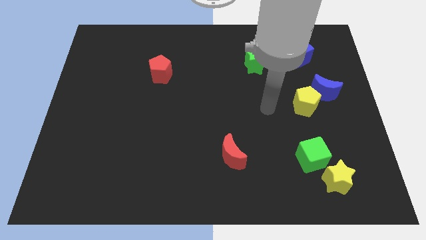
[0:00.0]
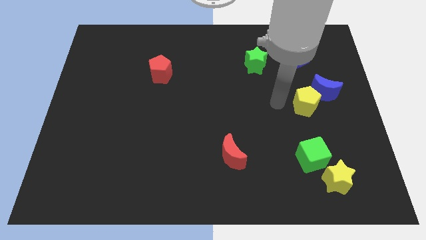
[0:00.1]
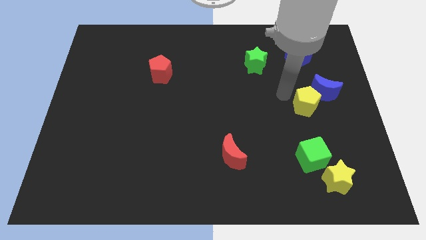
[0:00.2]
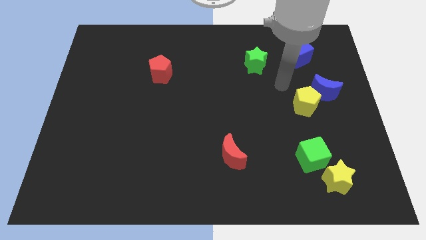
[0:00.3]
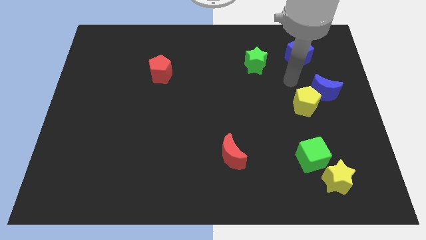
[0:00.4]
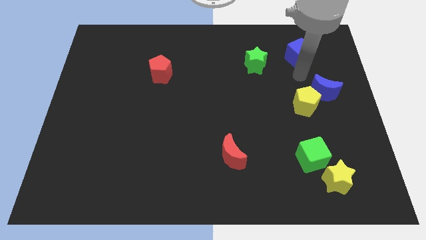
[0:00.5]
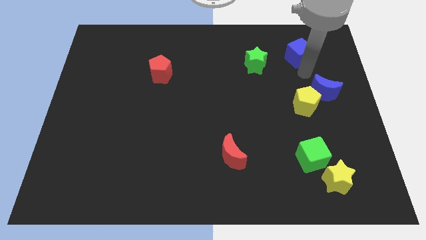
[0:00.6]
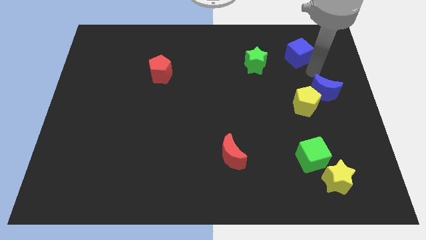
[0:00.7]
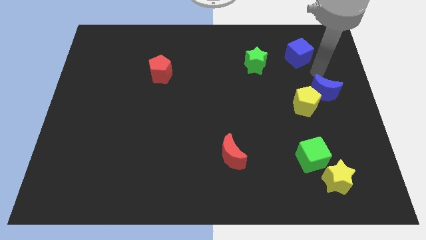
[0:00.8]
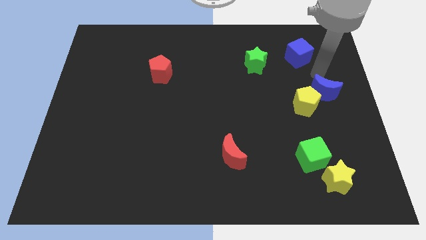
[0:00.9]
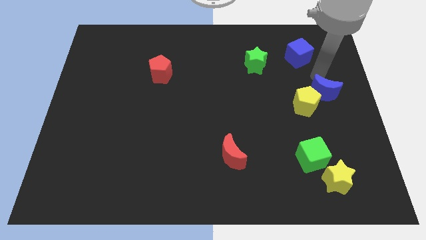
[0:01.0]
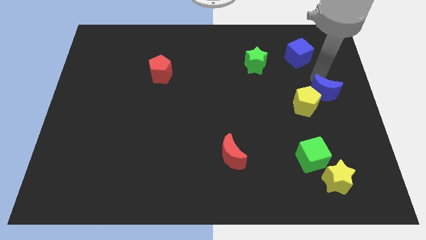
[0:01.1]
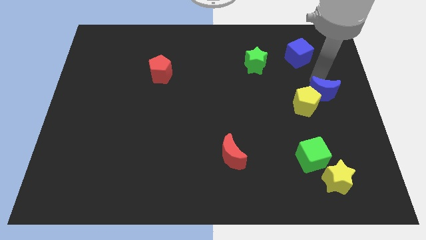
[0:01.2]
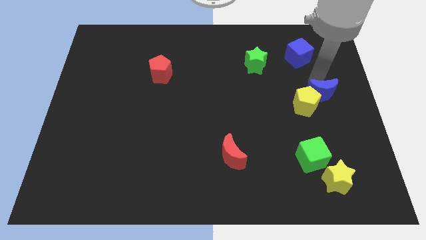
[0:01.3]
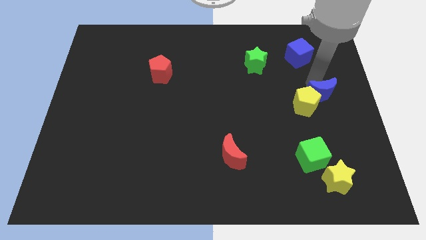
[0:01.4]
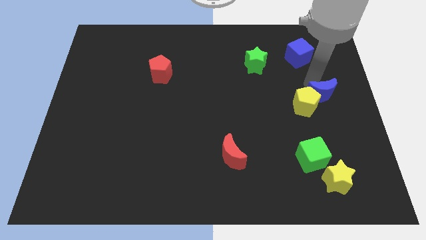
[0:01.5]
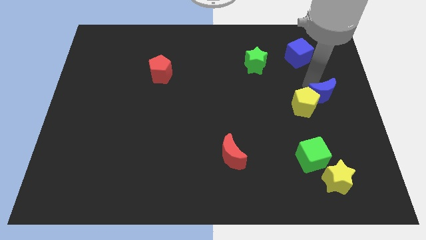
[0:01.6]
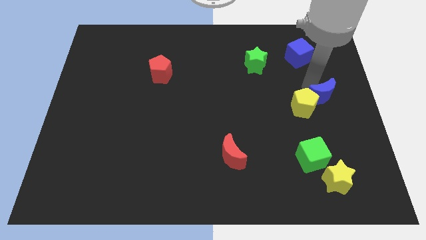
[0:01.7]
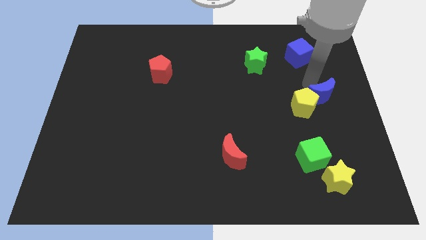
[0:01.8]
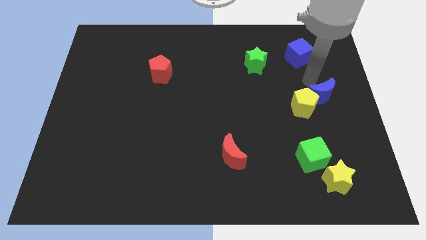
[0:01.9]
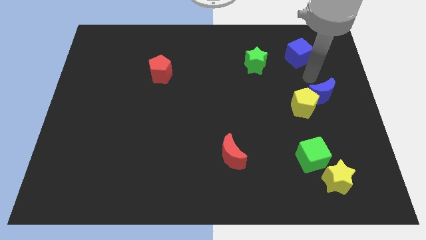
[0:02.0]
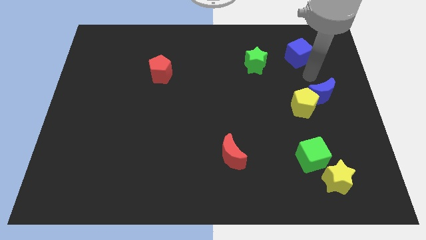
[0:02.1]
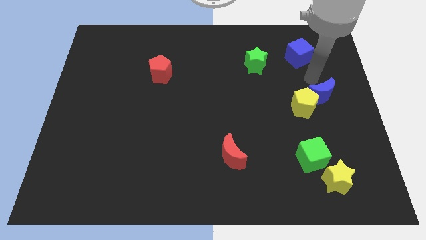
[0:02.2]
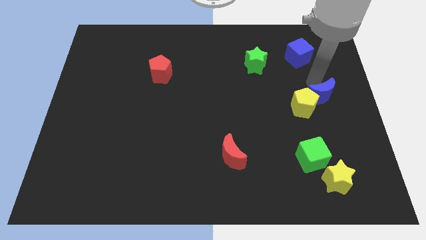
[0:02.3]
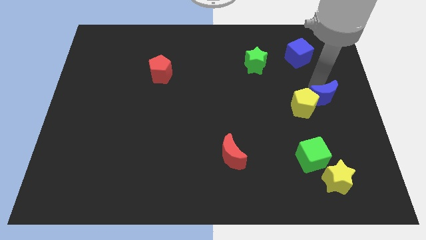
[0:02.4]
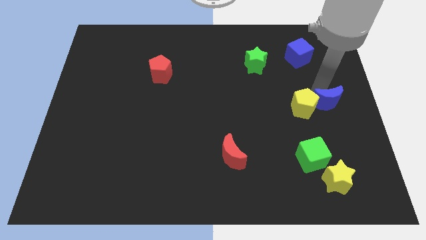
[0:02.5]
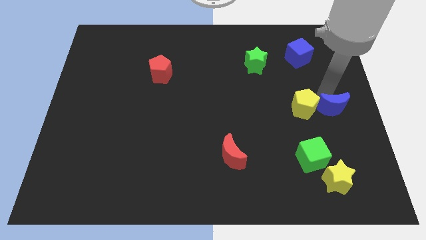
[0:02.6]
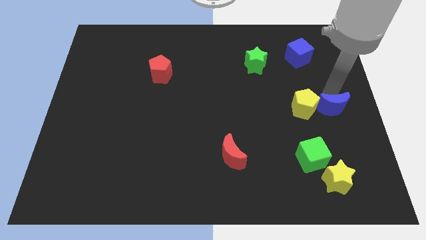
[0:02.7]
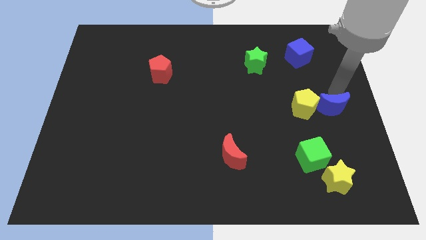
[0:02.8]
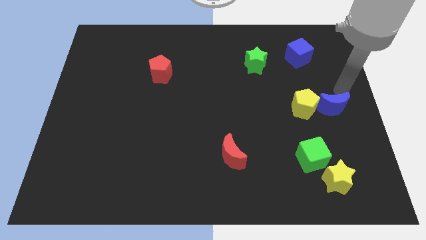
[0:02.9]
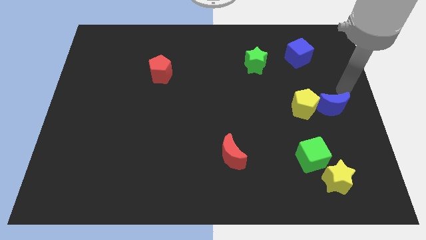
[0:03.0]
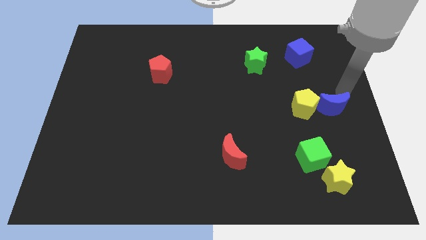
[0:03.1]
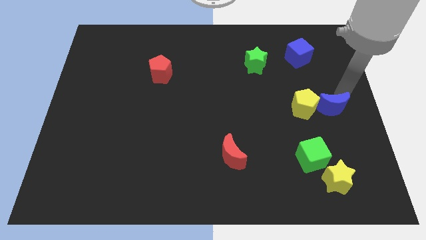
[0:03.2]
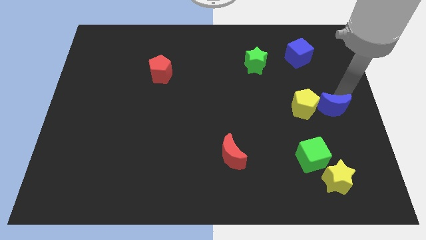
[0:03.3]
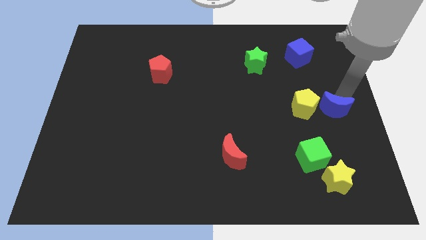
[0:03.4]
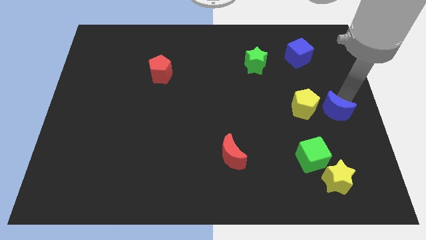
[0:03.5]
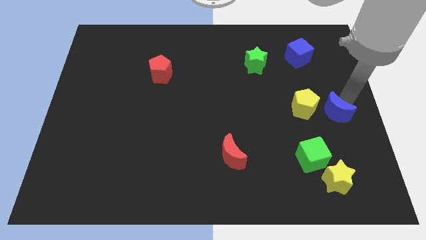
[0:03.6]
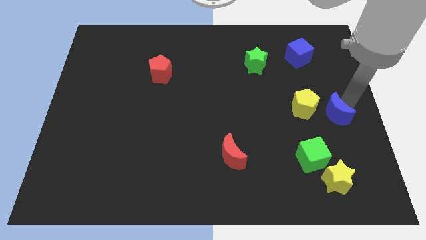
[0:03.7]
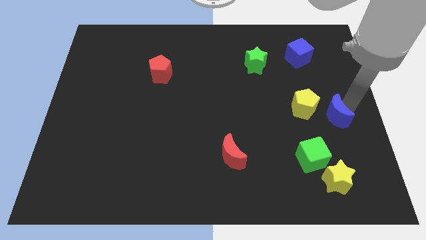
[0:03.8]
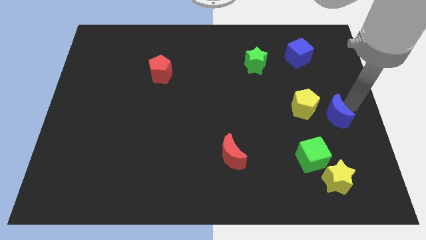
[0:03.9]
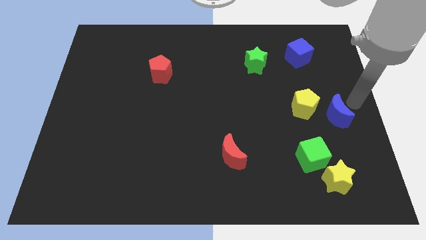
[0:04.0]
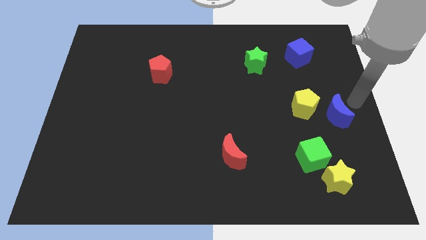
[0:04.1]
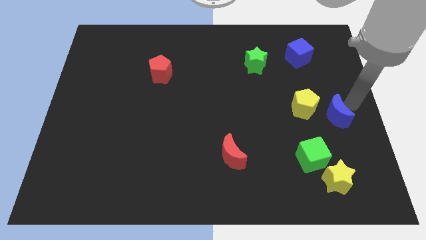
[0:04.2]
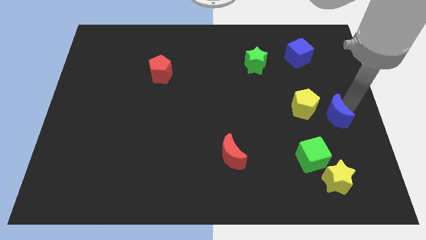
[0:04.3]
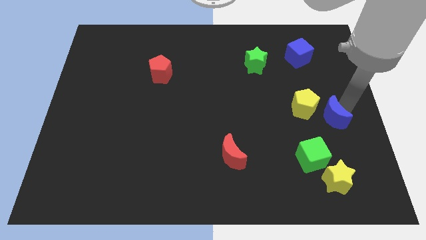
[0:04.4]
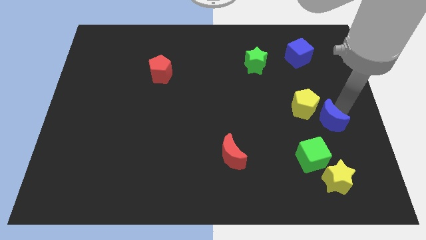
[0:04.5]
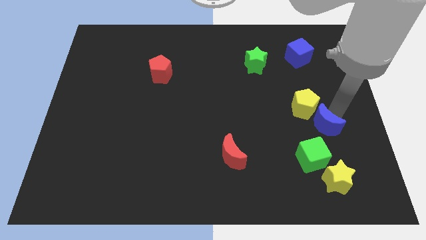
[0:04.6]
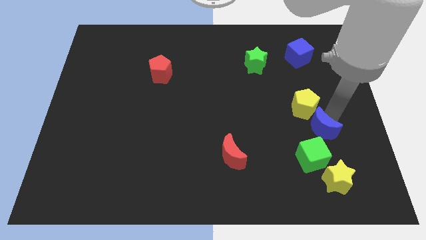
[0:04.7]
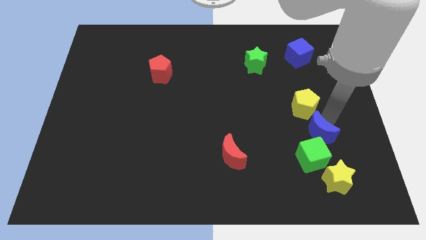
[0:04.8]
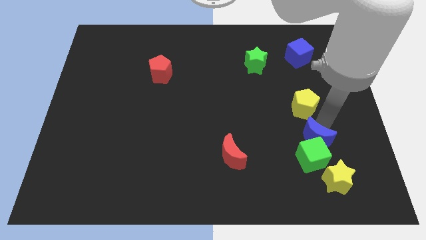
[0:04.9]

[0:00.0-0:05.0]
put the blue moon towards the green cube
